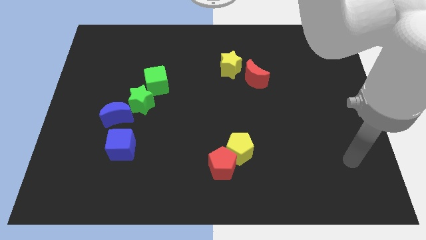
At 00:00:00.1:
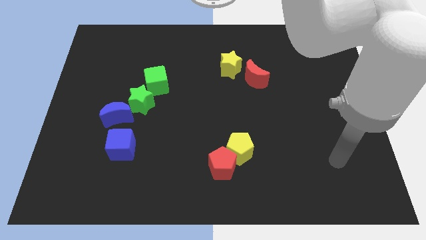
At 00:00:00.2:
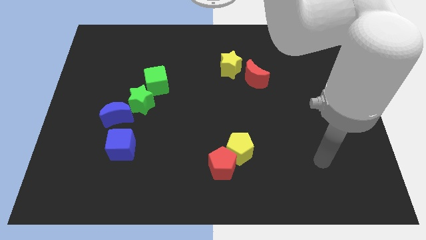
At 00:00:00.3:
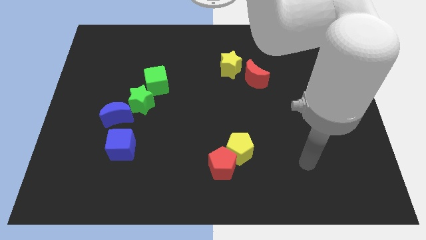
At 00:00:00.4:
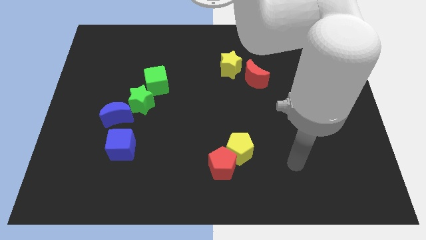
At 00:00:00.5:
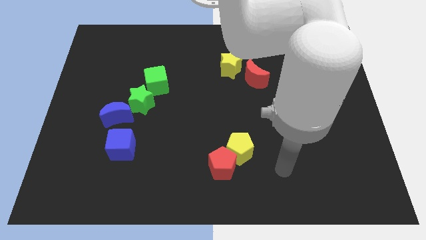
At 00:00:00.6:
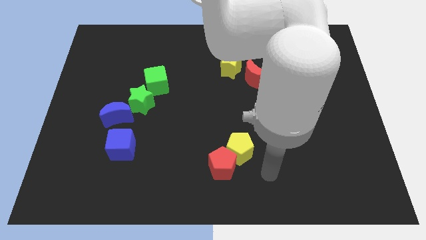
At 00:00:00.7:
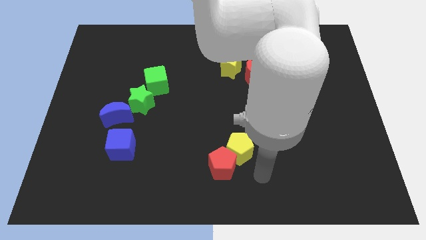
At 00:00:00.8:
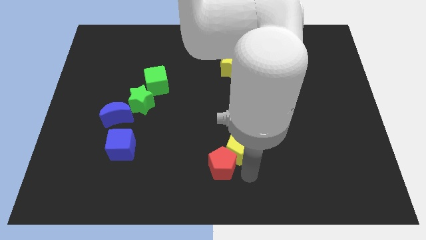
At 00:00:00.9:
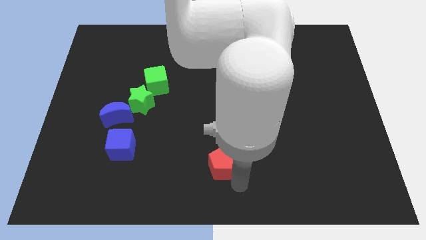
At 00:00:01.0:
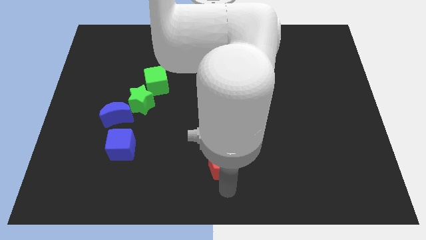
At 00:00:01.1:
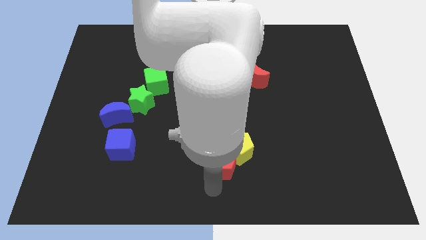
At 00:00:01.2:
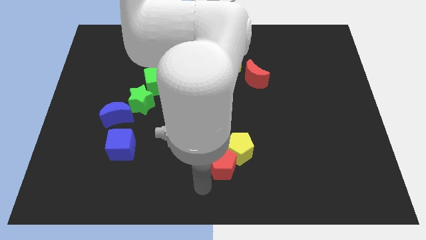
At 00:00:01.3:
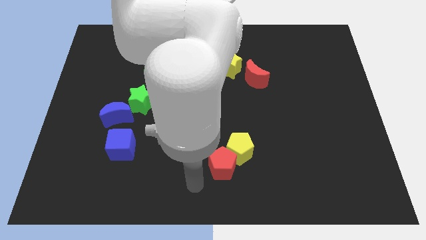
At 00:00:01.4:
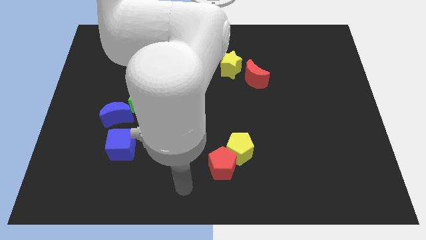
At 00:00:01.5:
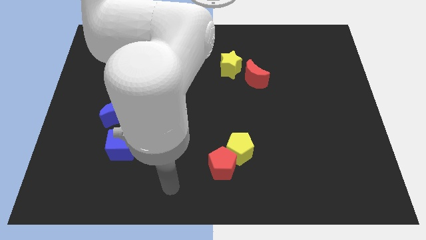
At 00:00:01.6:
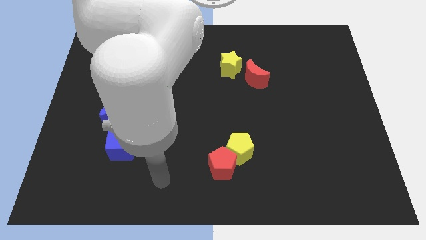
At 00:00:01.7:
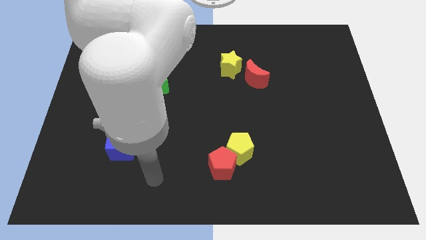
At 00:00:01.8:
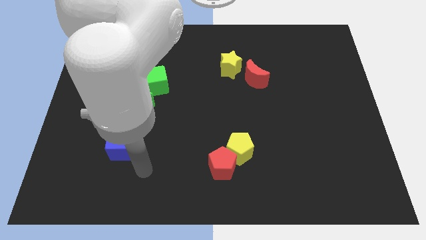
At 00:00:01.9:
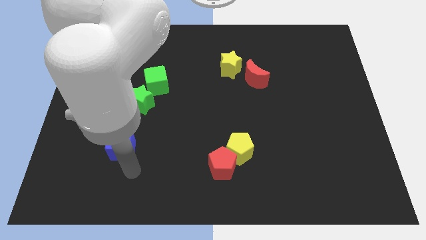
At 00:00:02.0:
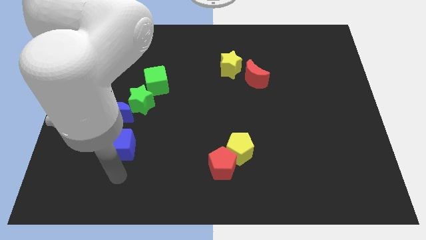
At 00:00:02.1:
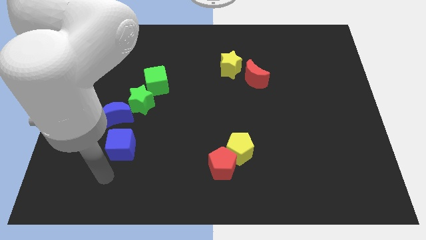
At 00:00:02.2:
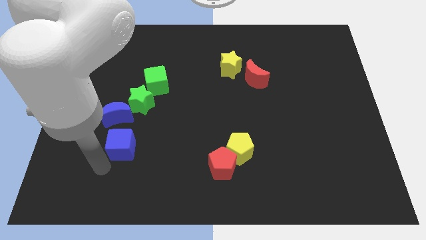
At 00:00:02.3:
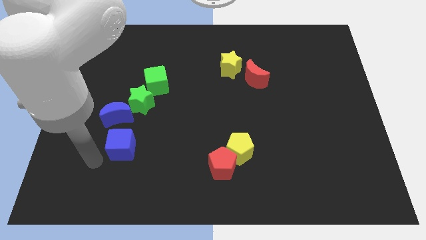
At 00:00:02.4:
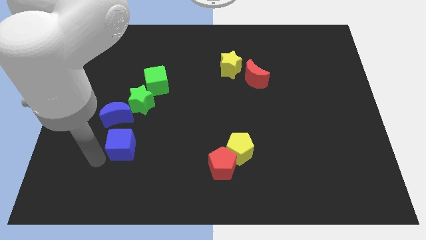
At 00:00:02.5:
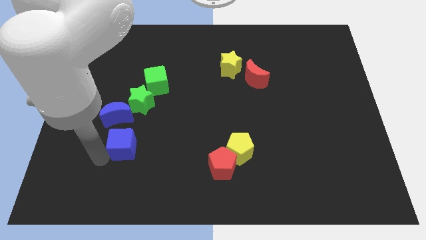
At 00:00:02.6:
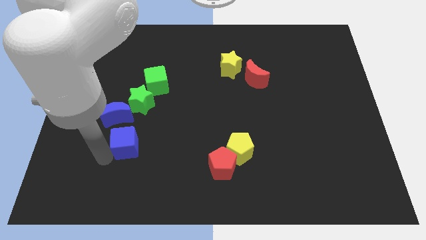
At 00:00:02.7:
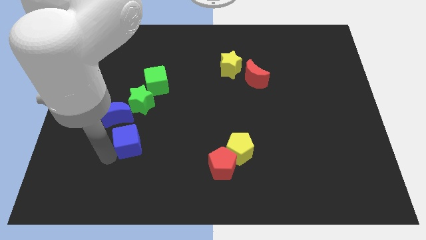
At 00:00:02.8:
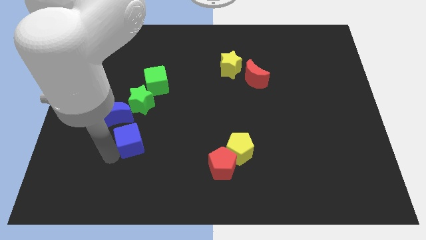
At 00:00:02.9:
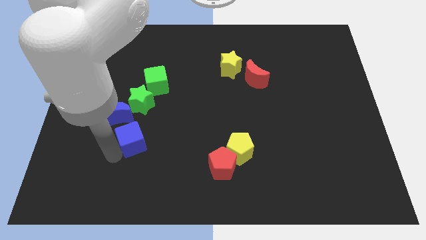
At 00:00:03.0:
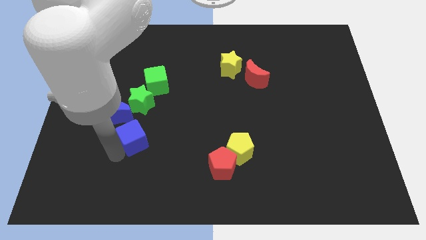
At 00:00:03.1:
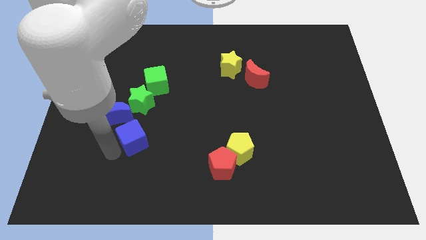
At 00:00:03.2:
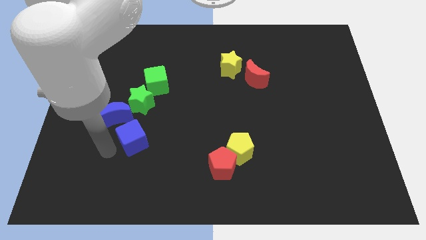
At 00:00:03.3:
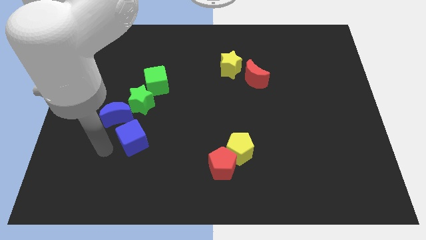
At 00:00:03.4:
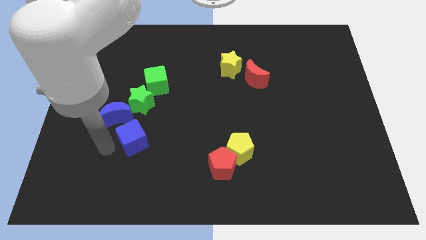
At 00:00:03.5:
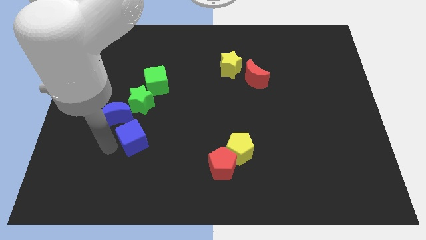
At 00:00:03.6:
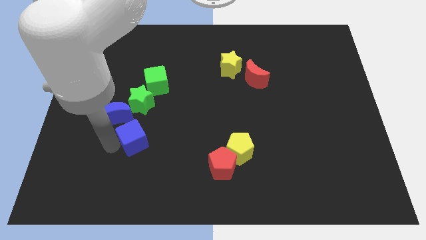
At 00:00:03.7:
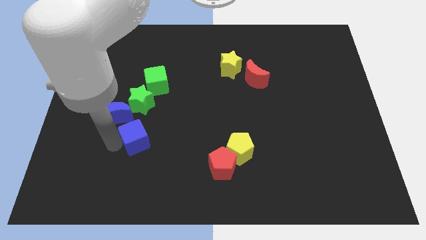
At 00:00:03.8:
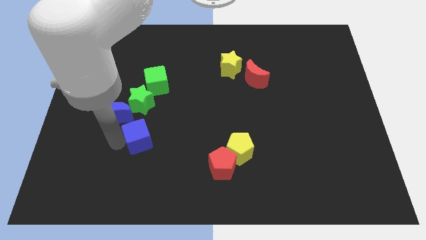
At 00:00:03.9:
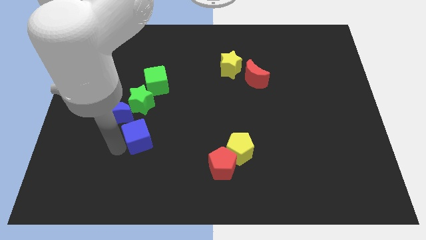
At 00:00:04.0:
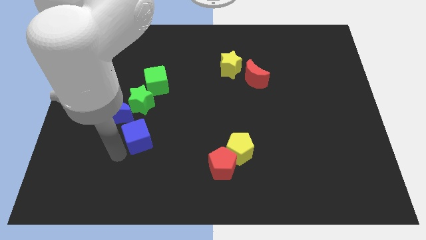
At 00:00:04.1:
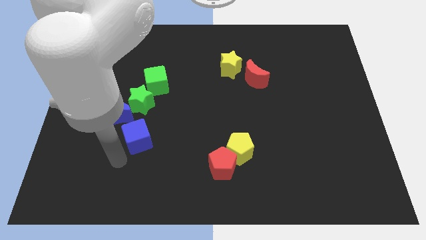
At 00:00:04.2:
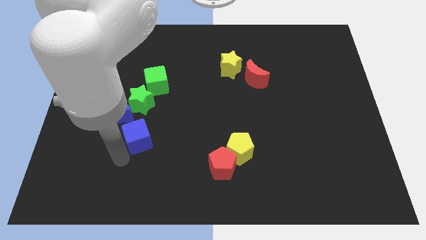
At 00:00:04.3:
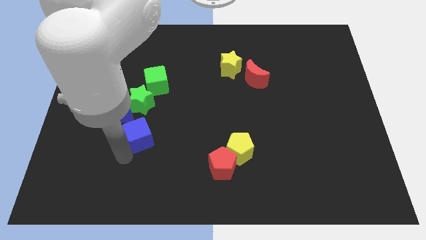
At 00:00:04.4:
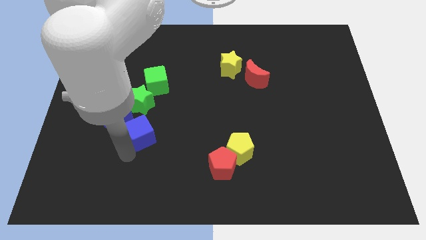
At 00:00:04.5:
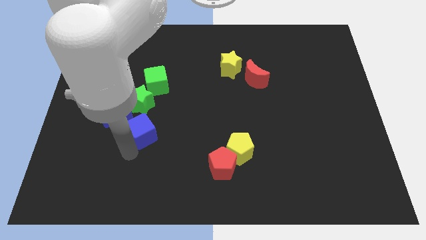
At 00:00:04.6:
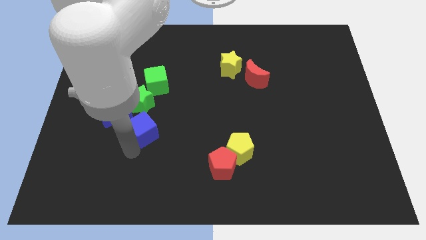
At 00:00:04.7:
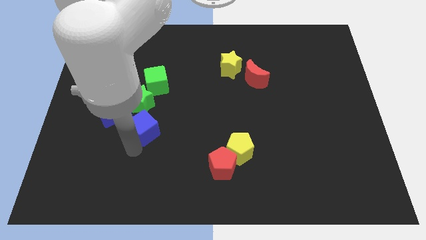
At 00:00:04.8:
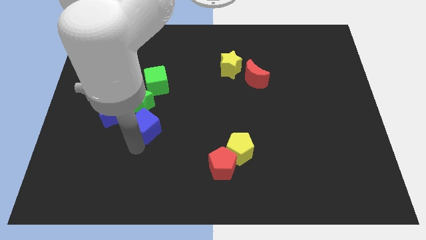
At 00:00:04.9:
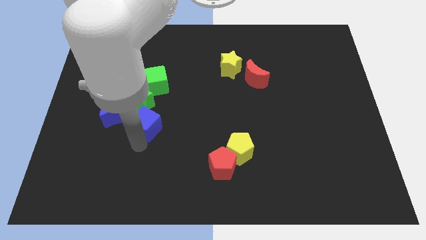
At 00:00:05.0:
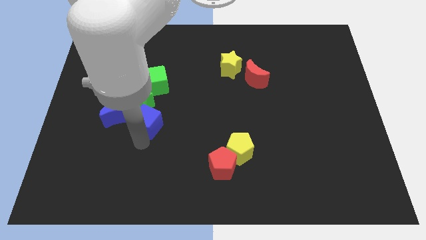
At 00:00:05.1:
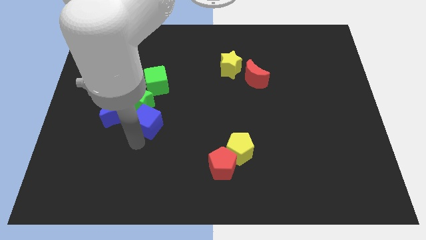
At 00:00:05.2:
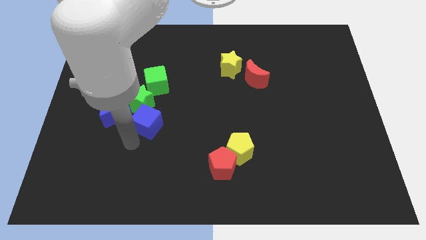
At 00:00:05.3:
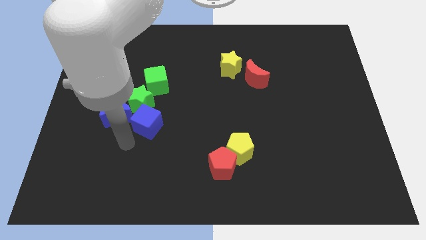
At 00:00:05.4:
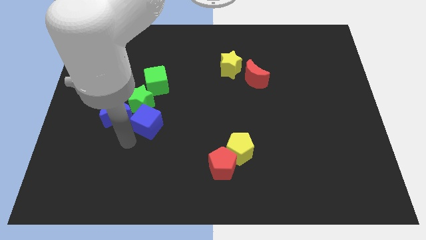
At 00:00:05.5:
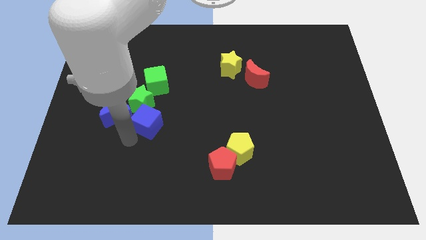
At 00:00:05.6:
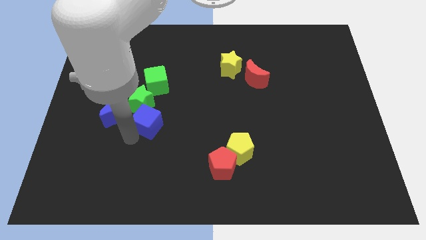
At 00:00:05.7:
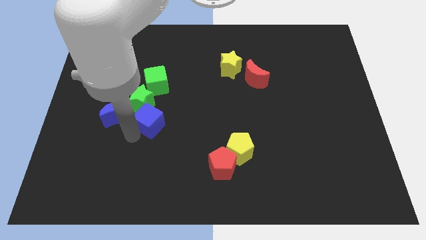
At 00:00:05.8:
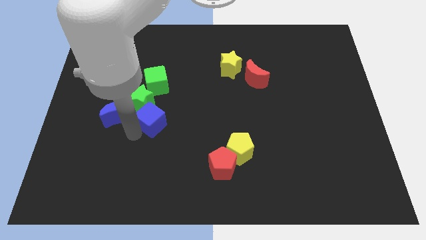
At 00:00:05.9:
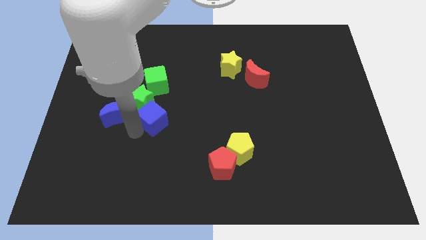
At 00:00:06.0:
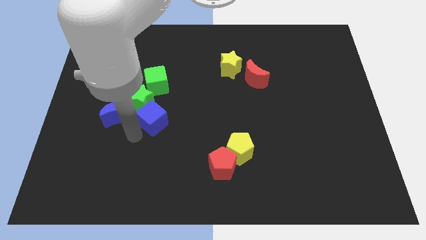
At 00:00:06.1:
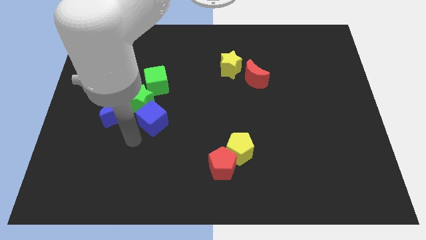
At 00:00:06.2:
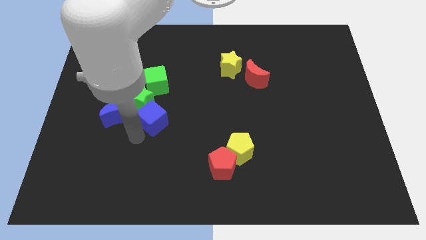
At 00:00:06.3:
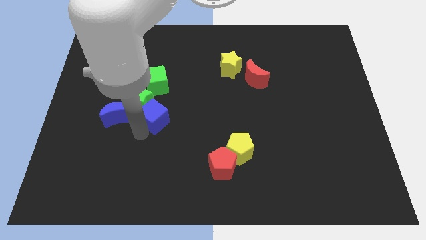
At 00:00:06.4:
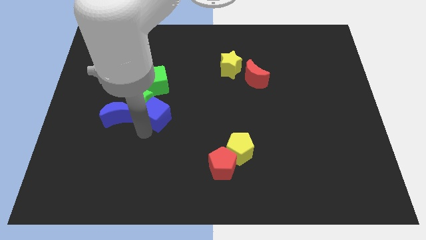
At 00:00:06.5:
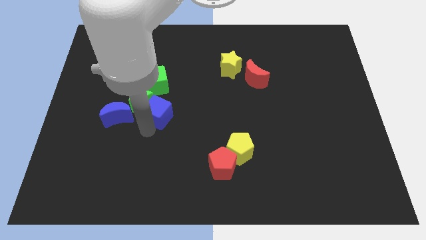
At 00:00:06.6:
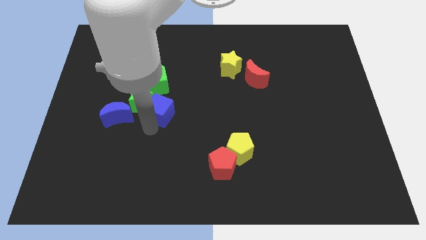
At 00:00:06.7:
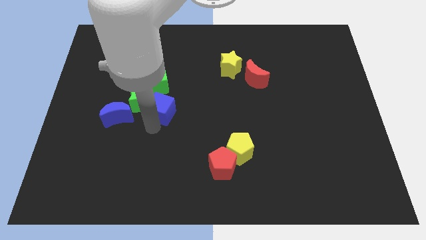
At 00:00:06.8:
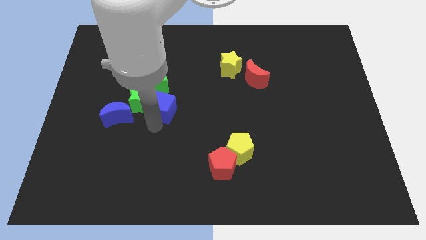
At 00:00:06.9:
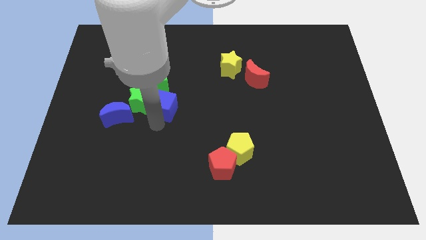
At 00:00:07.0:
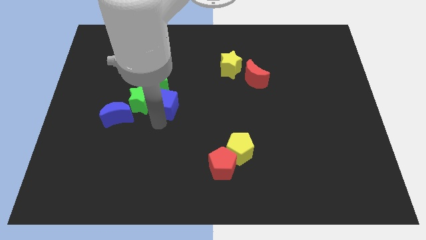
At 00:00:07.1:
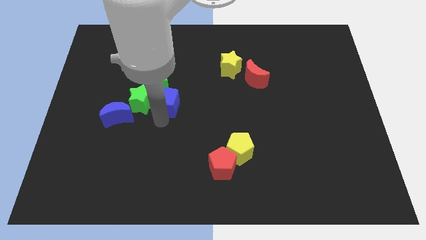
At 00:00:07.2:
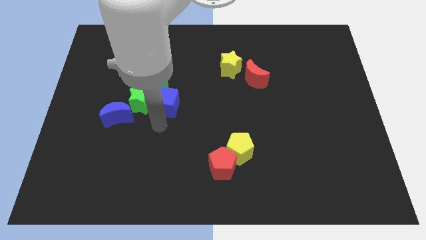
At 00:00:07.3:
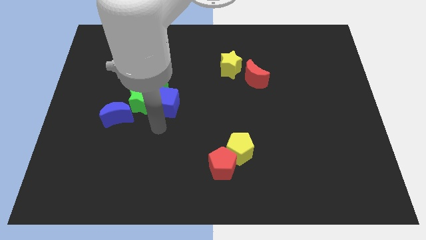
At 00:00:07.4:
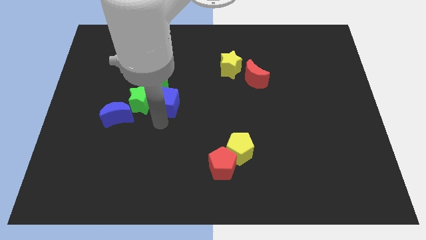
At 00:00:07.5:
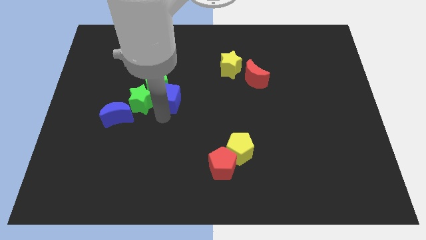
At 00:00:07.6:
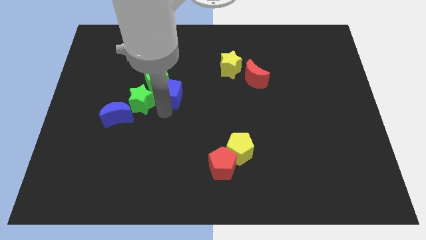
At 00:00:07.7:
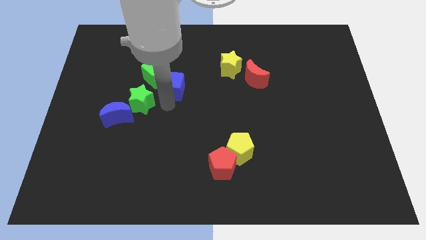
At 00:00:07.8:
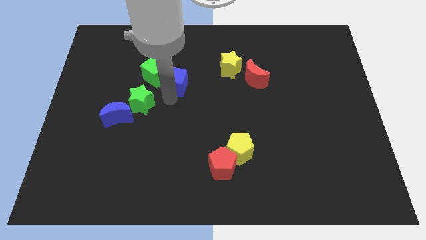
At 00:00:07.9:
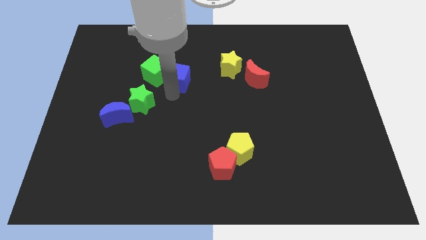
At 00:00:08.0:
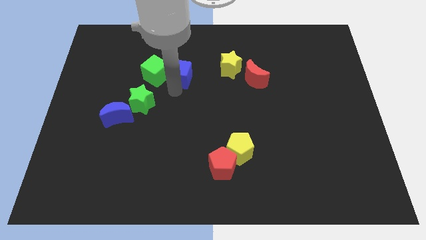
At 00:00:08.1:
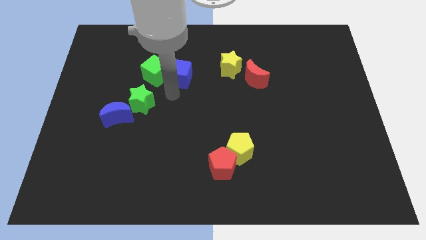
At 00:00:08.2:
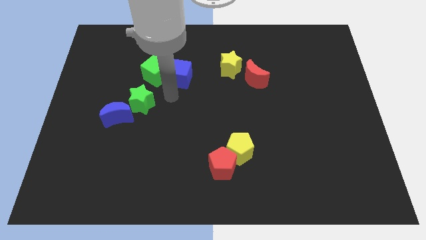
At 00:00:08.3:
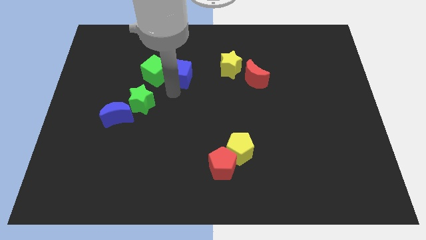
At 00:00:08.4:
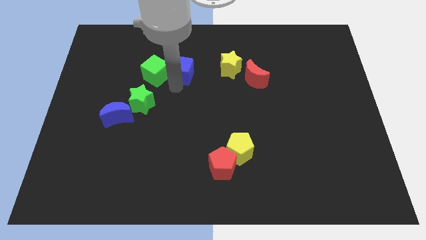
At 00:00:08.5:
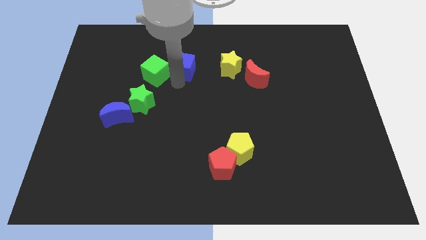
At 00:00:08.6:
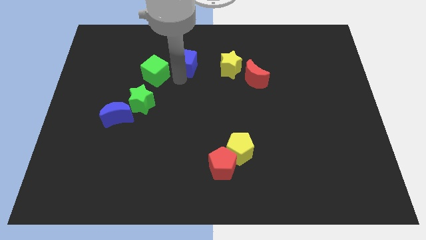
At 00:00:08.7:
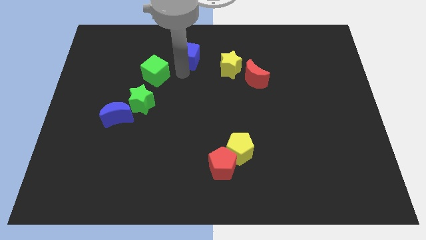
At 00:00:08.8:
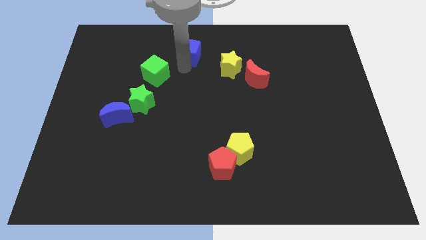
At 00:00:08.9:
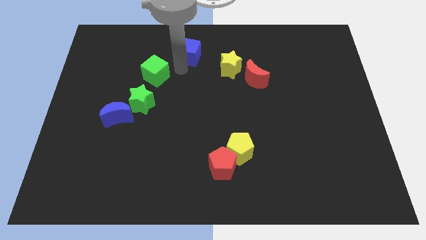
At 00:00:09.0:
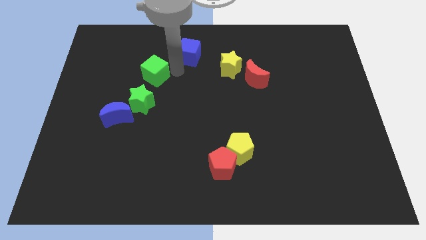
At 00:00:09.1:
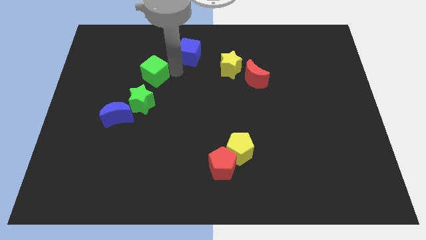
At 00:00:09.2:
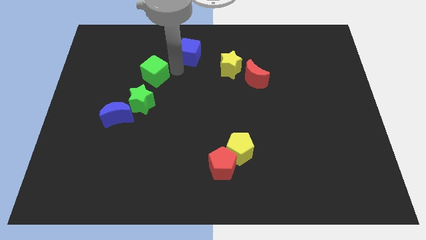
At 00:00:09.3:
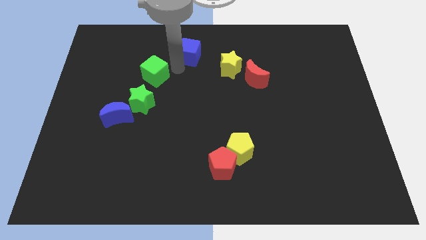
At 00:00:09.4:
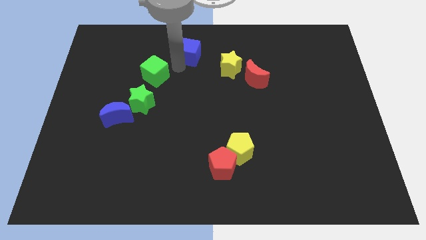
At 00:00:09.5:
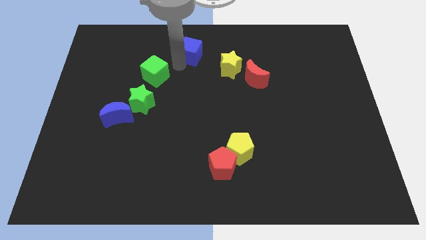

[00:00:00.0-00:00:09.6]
put the blue cube to the towards your base
